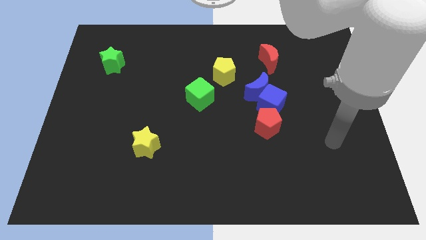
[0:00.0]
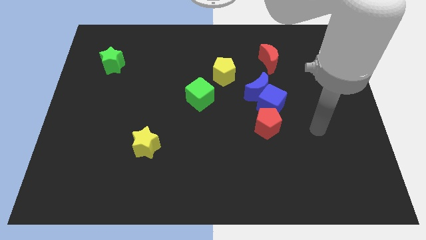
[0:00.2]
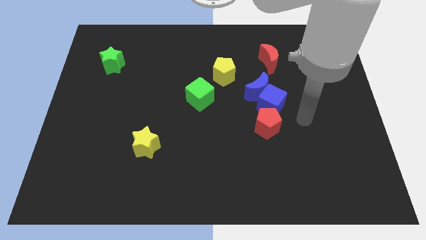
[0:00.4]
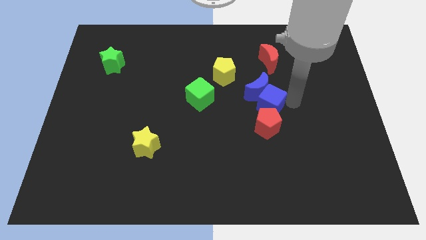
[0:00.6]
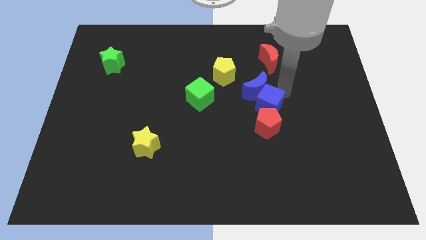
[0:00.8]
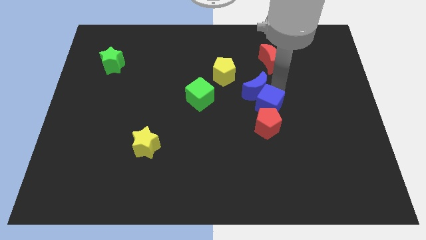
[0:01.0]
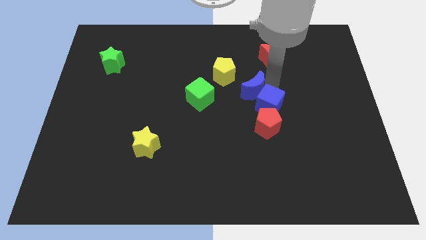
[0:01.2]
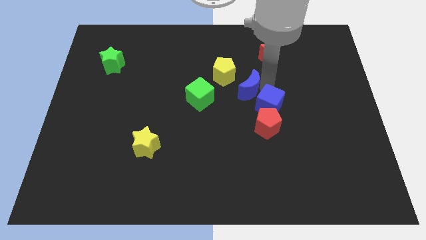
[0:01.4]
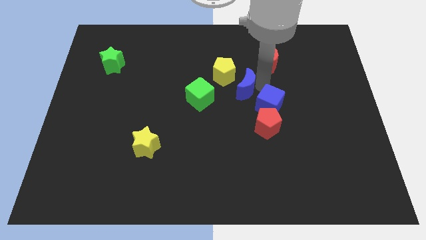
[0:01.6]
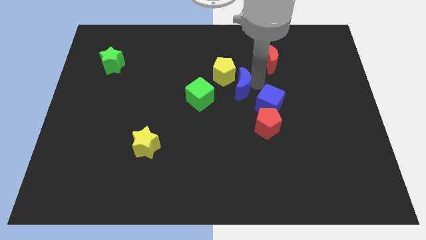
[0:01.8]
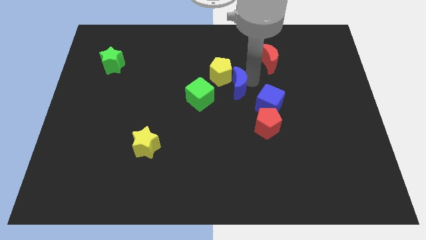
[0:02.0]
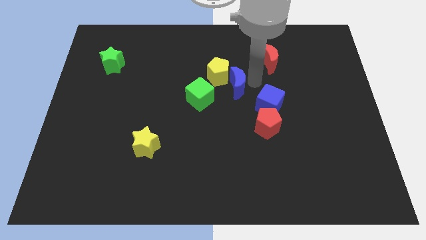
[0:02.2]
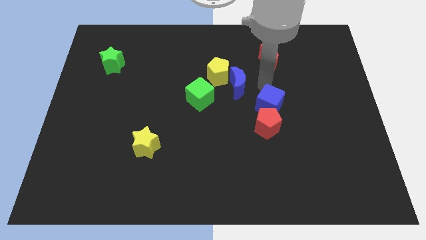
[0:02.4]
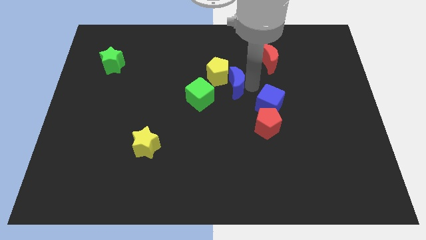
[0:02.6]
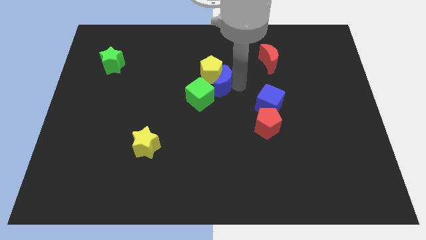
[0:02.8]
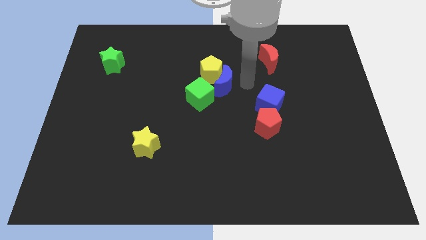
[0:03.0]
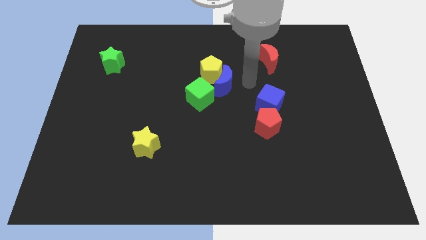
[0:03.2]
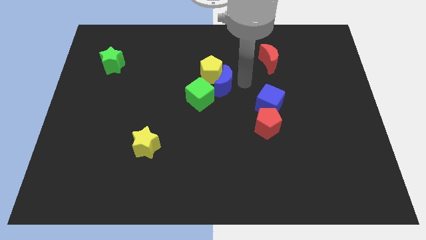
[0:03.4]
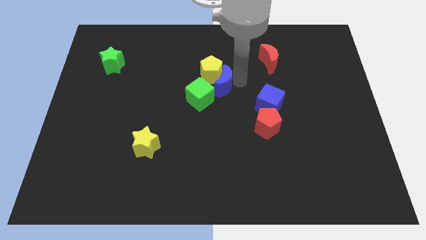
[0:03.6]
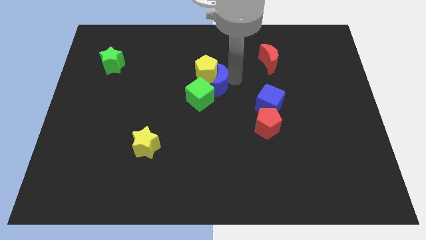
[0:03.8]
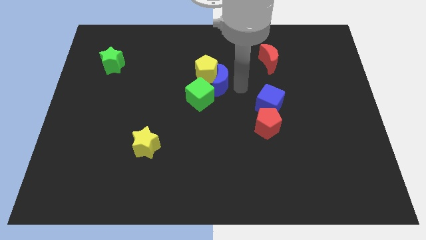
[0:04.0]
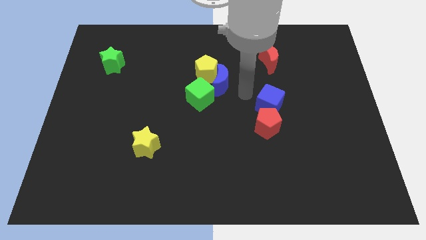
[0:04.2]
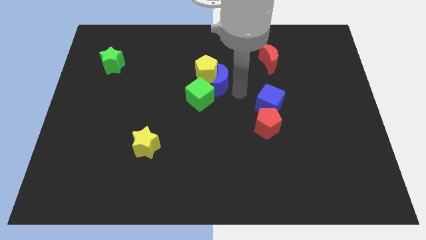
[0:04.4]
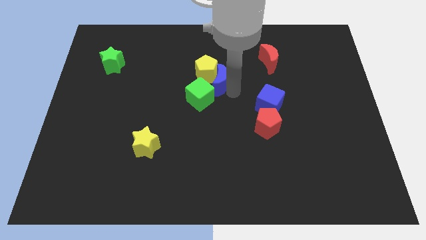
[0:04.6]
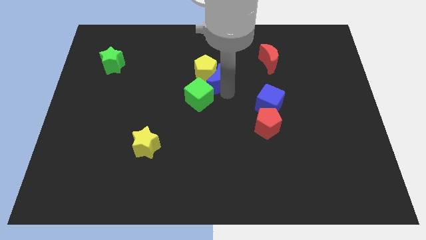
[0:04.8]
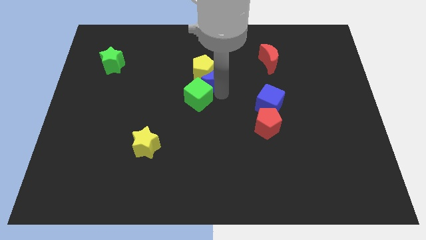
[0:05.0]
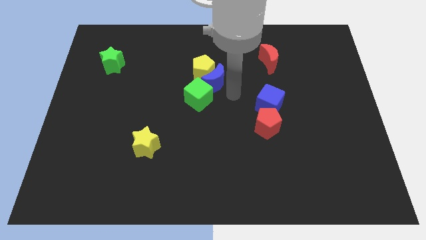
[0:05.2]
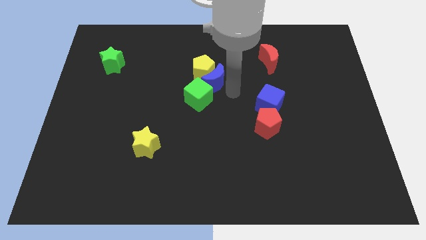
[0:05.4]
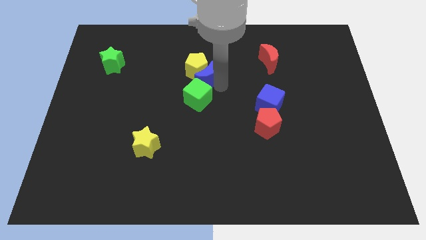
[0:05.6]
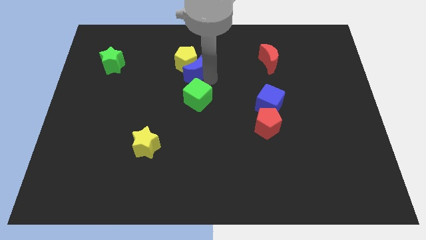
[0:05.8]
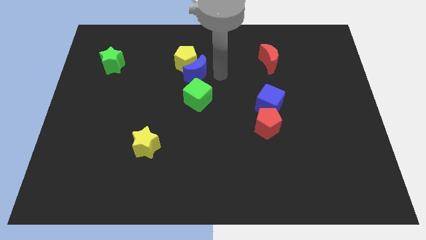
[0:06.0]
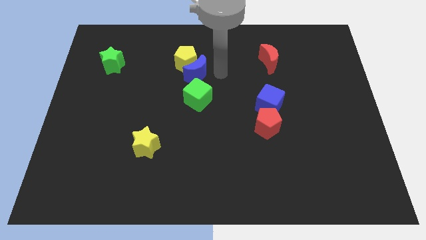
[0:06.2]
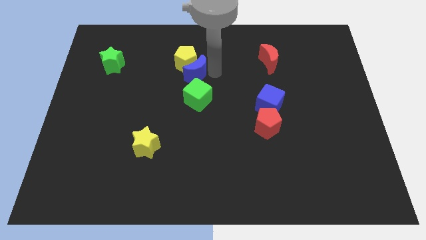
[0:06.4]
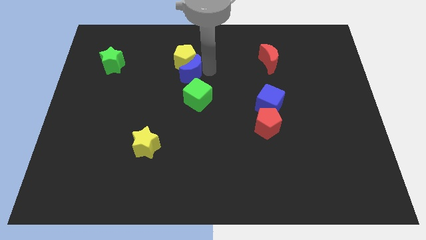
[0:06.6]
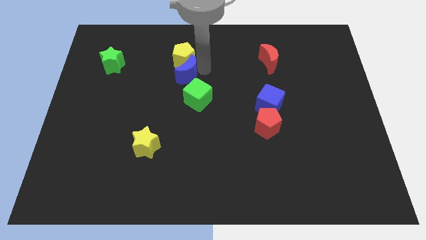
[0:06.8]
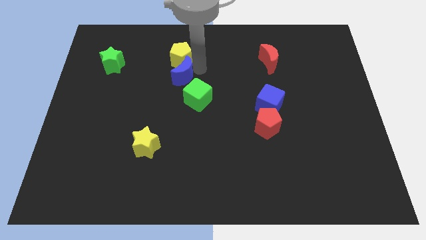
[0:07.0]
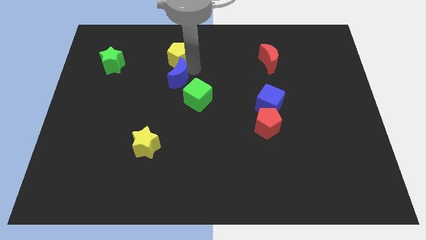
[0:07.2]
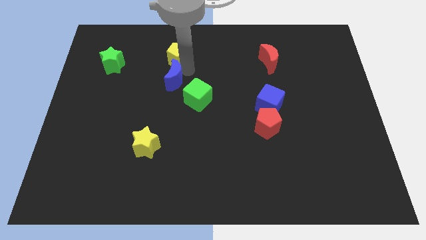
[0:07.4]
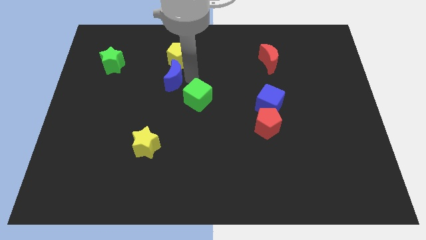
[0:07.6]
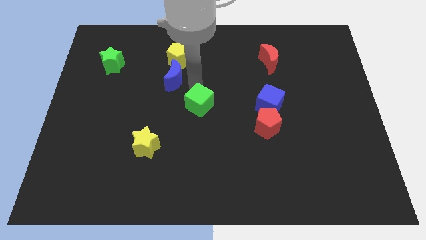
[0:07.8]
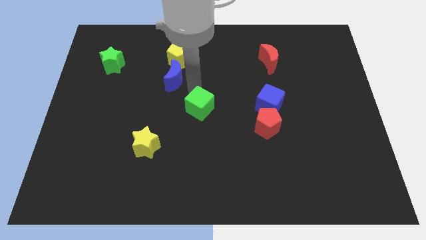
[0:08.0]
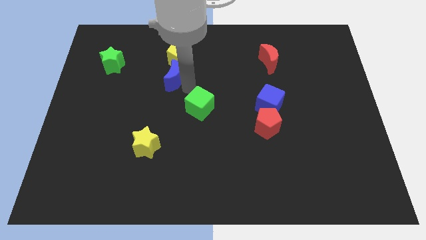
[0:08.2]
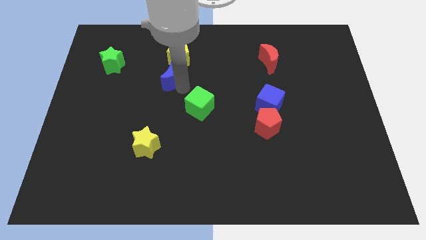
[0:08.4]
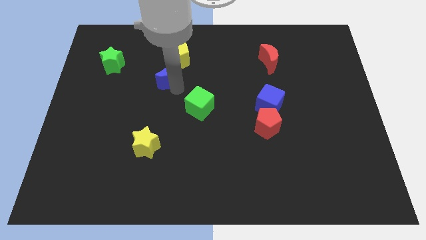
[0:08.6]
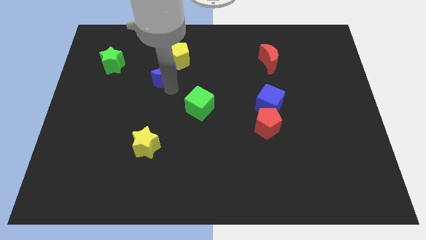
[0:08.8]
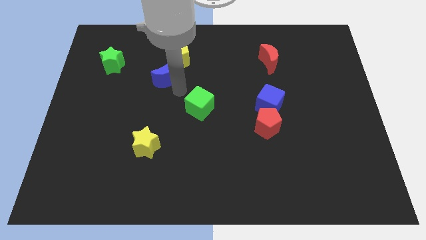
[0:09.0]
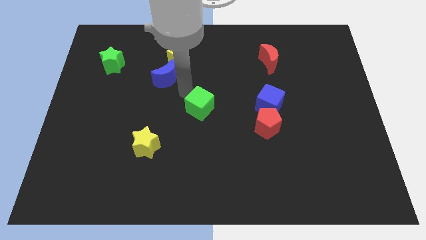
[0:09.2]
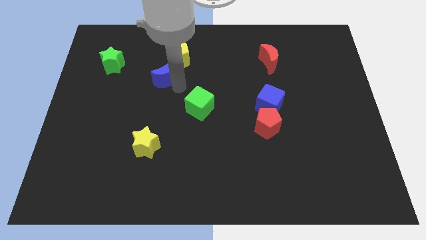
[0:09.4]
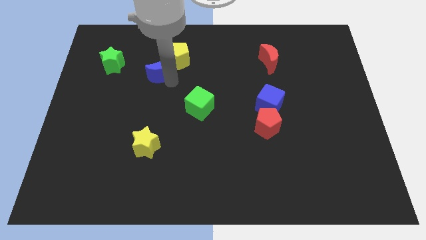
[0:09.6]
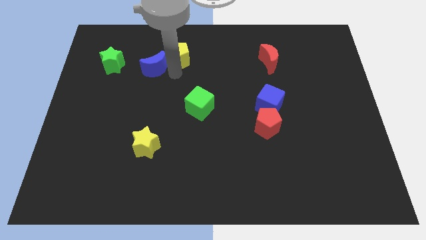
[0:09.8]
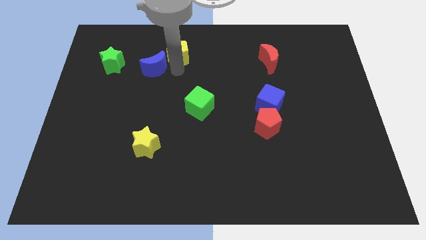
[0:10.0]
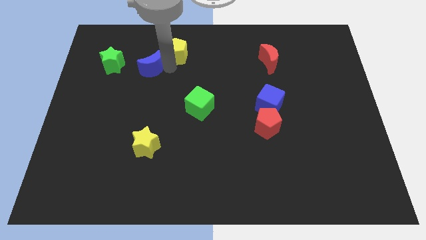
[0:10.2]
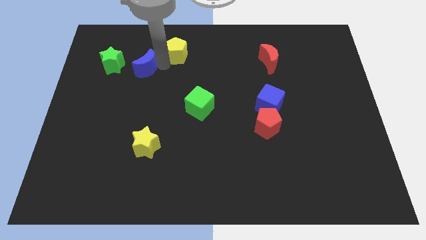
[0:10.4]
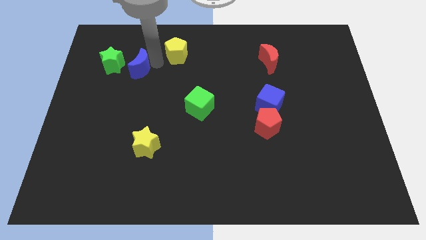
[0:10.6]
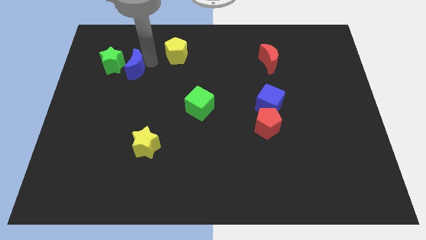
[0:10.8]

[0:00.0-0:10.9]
push the blue moon next to the green star

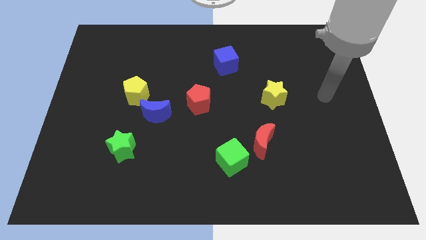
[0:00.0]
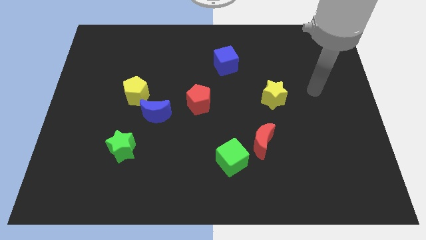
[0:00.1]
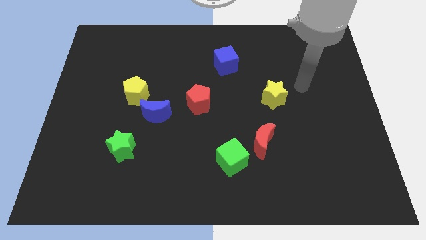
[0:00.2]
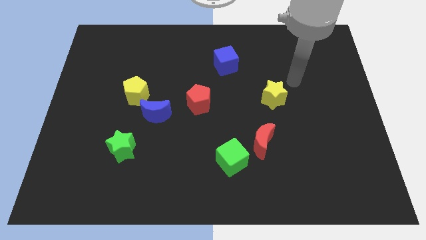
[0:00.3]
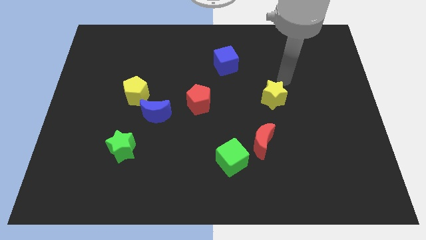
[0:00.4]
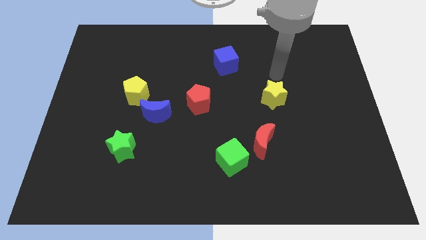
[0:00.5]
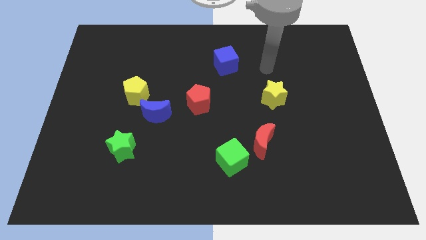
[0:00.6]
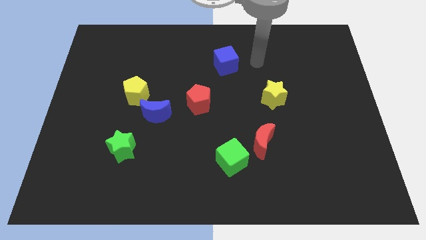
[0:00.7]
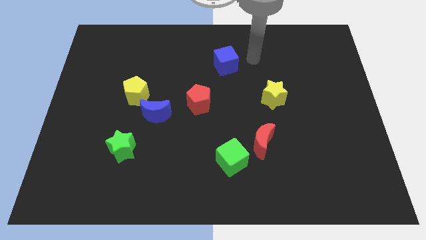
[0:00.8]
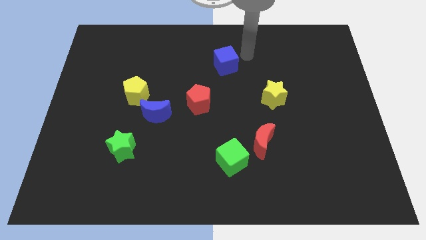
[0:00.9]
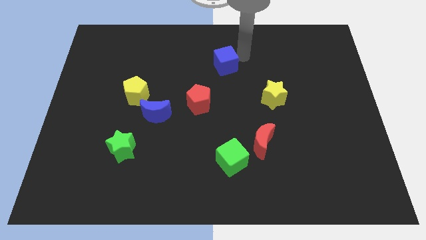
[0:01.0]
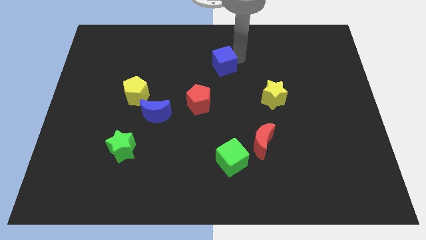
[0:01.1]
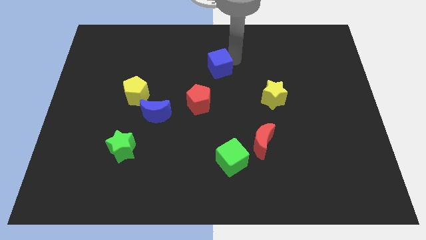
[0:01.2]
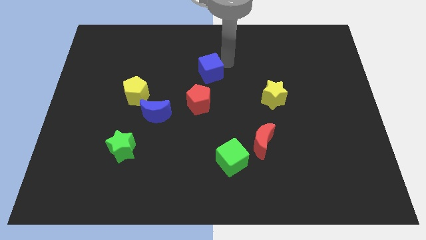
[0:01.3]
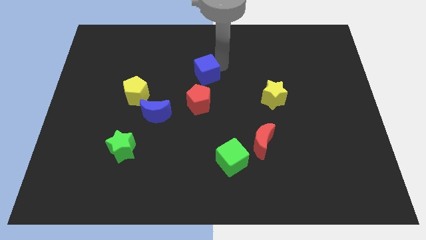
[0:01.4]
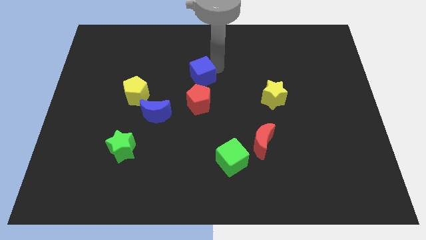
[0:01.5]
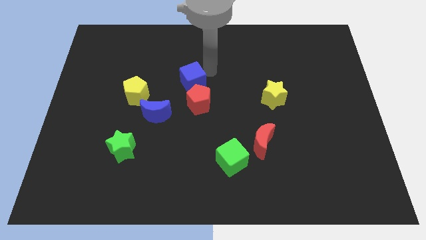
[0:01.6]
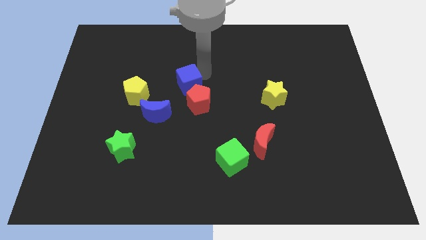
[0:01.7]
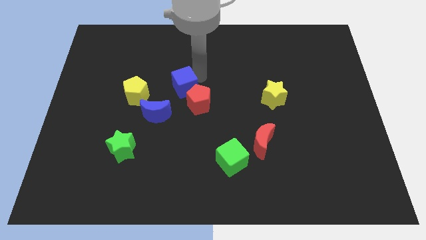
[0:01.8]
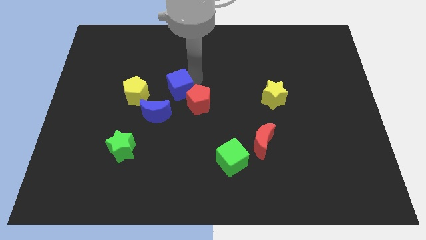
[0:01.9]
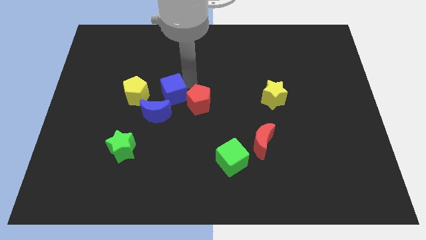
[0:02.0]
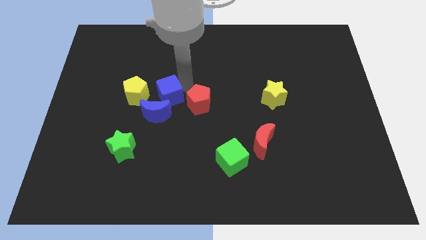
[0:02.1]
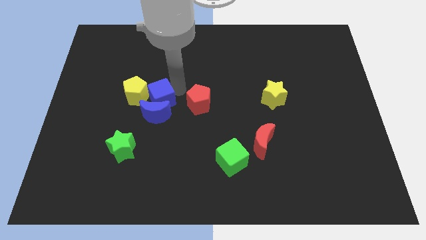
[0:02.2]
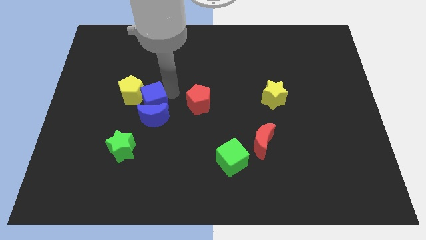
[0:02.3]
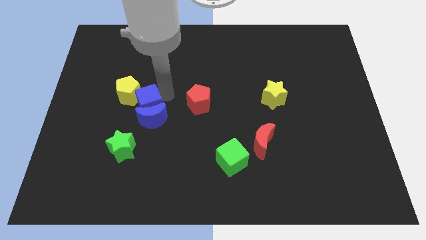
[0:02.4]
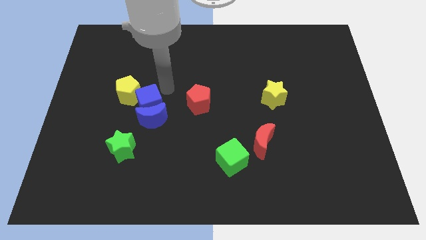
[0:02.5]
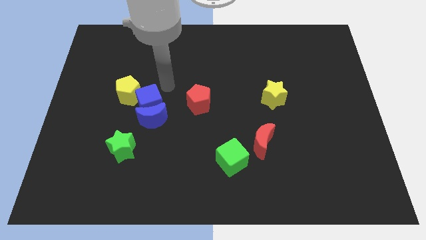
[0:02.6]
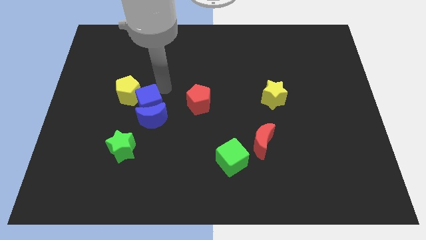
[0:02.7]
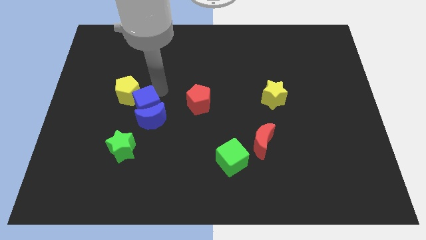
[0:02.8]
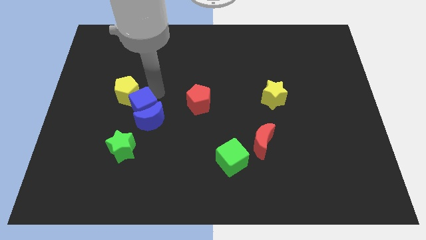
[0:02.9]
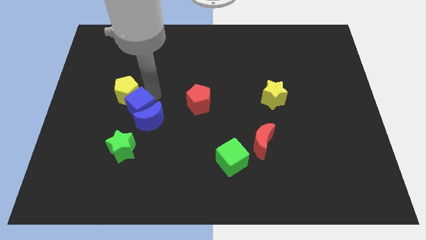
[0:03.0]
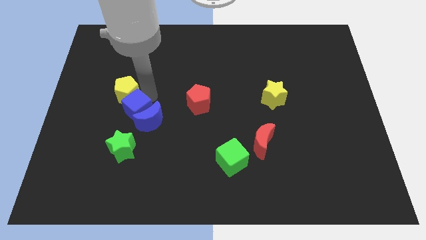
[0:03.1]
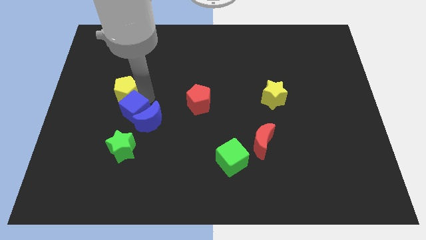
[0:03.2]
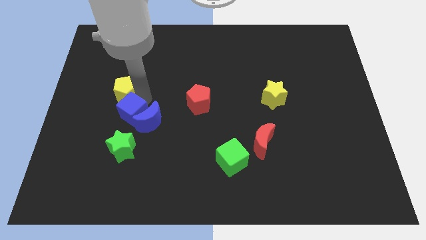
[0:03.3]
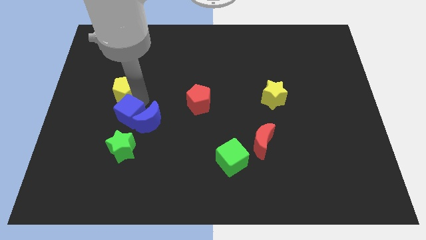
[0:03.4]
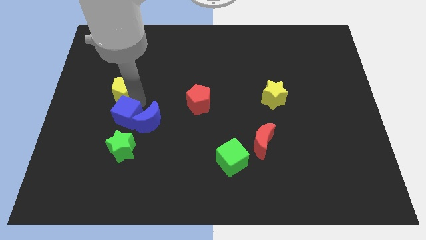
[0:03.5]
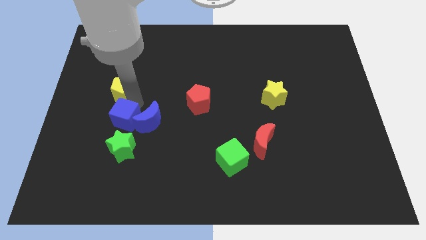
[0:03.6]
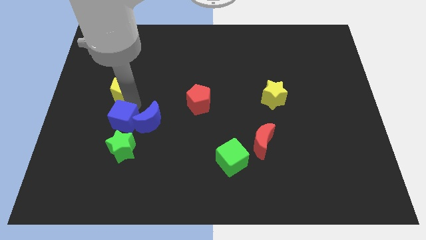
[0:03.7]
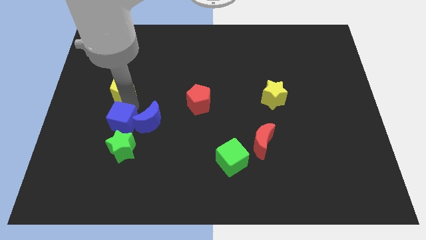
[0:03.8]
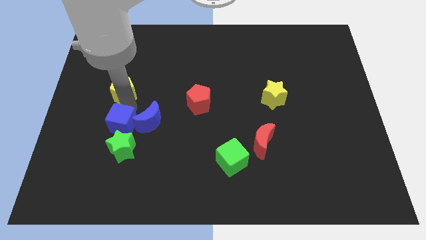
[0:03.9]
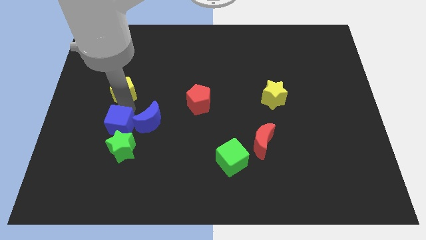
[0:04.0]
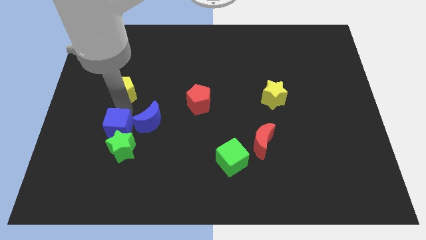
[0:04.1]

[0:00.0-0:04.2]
slide the blue cube towards the green star
